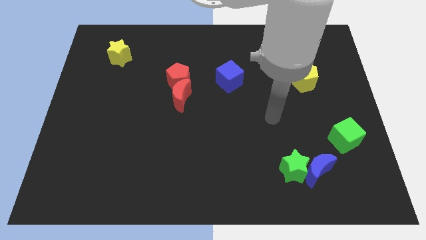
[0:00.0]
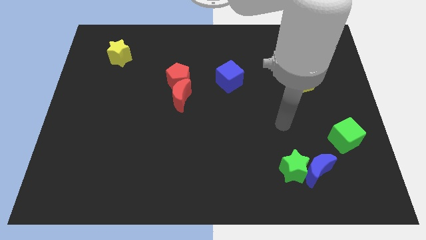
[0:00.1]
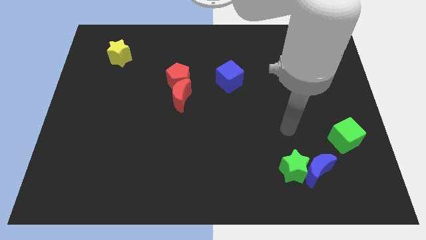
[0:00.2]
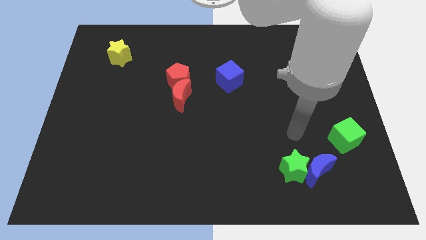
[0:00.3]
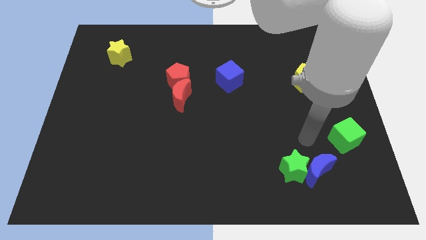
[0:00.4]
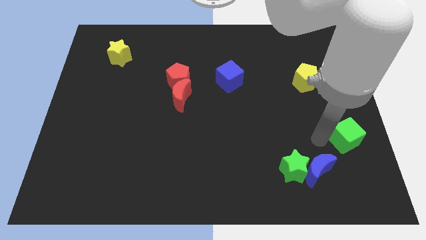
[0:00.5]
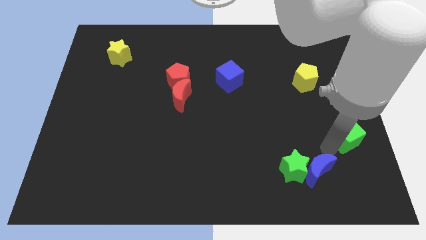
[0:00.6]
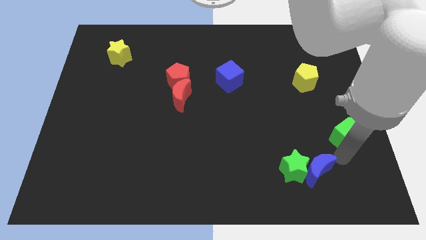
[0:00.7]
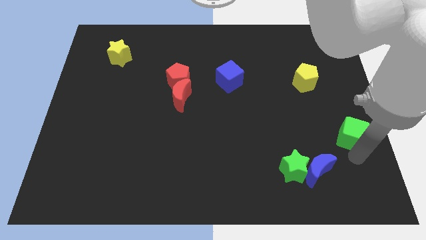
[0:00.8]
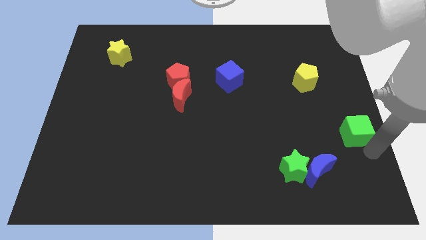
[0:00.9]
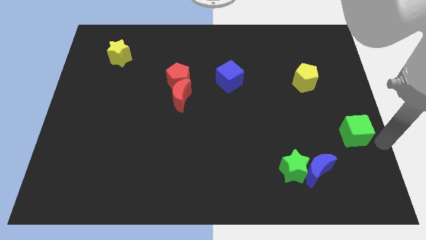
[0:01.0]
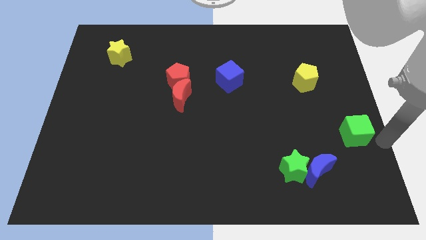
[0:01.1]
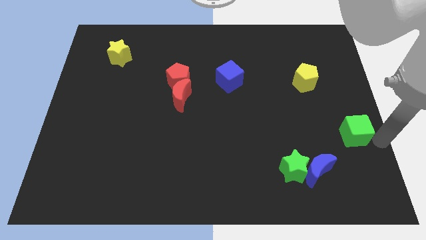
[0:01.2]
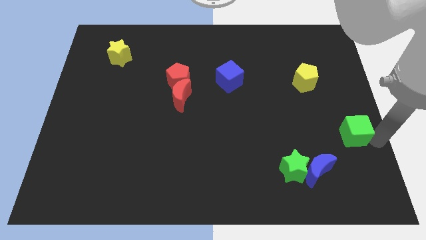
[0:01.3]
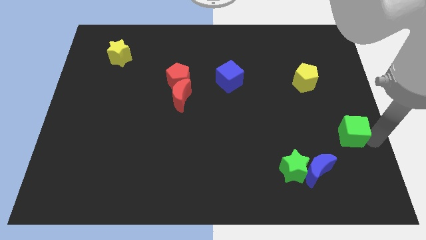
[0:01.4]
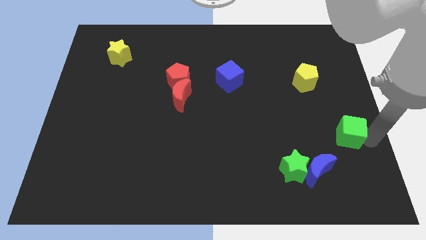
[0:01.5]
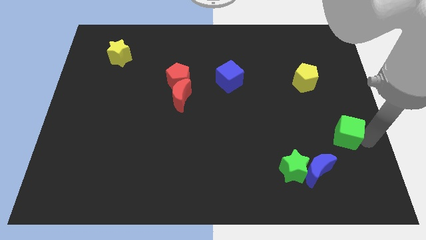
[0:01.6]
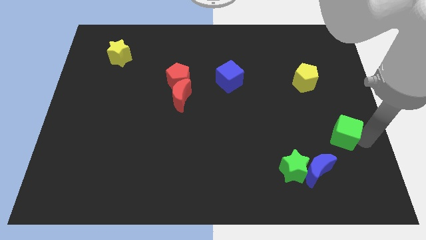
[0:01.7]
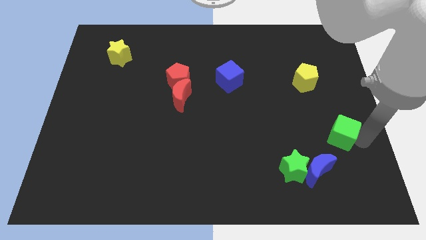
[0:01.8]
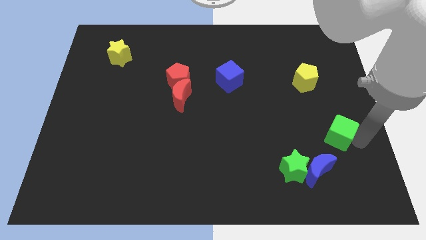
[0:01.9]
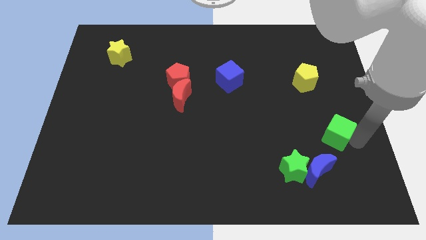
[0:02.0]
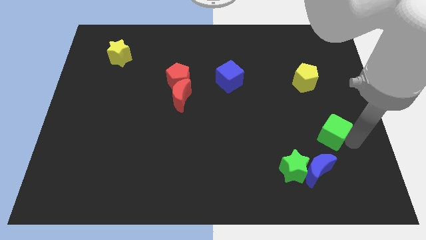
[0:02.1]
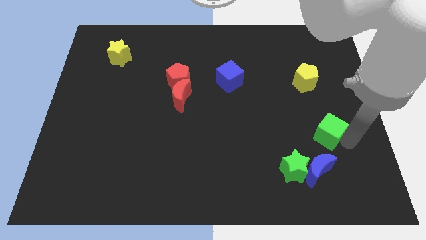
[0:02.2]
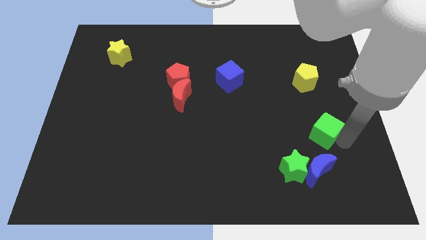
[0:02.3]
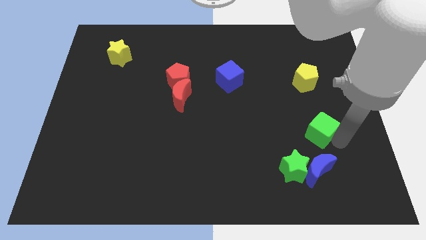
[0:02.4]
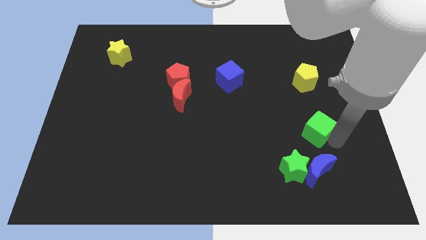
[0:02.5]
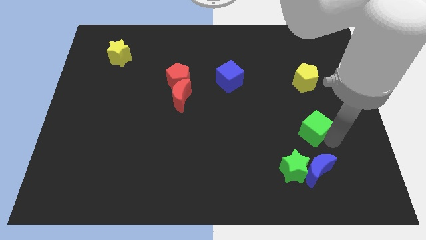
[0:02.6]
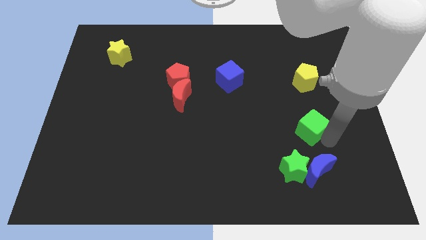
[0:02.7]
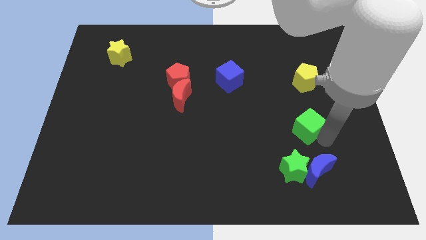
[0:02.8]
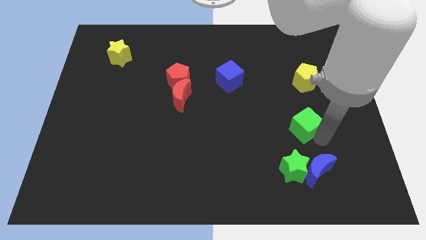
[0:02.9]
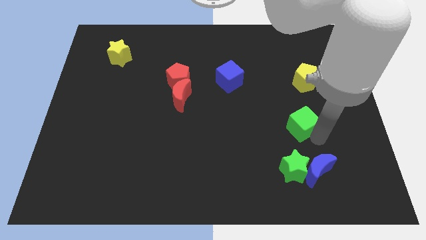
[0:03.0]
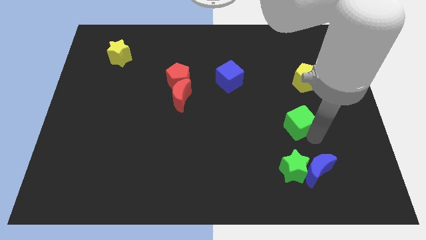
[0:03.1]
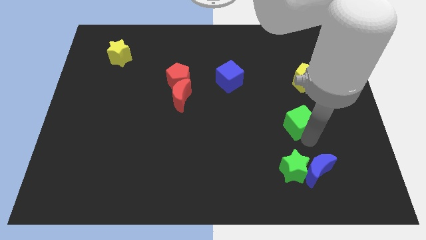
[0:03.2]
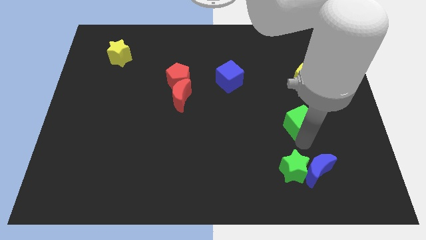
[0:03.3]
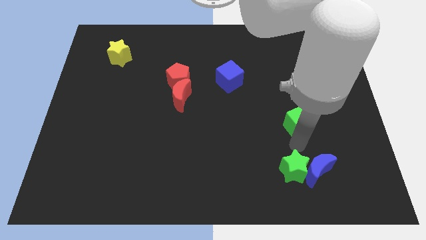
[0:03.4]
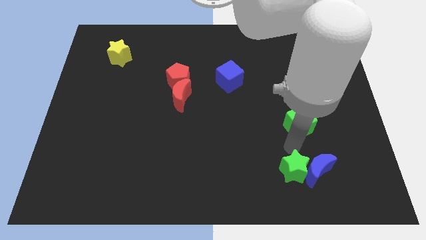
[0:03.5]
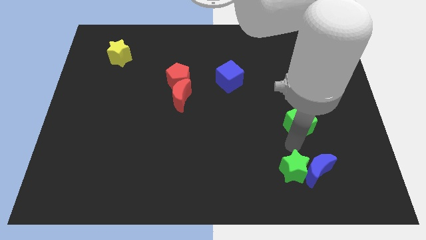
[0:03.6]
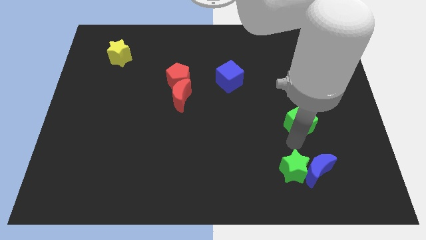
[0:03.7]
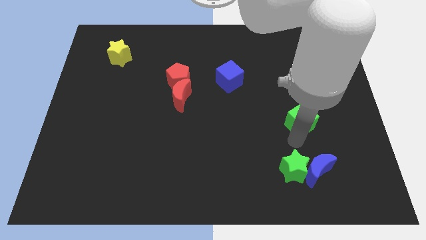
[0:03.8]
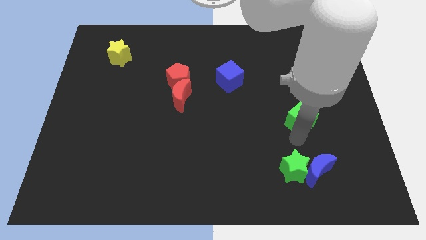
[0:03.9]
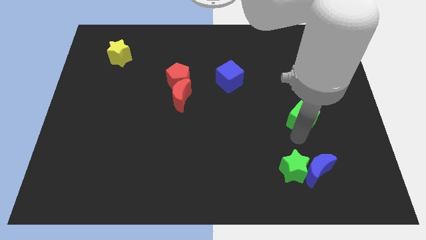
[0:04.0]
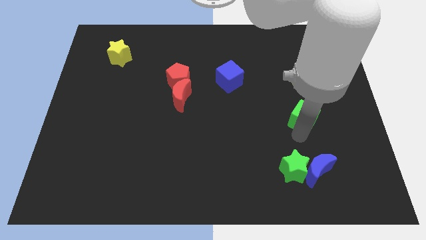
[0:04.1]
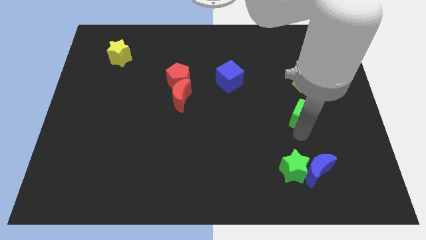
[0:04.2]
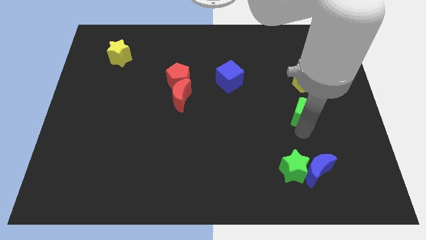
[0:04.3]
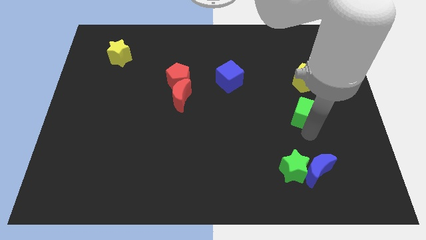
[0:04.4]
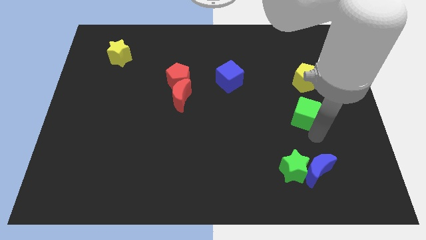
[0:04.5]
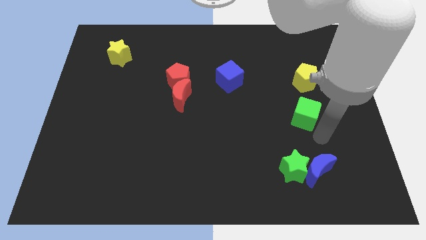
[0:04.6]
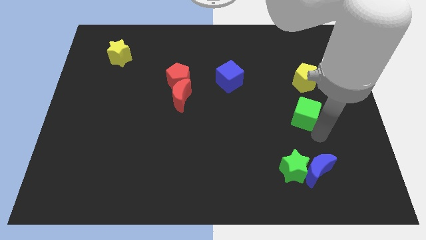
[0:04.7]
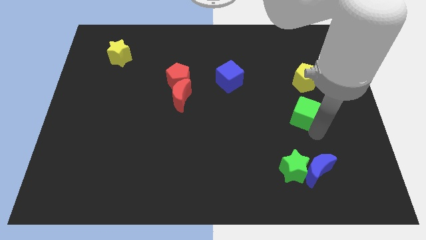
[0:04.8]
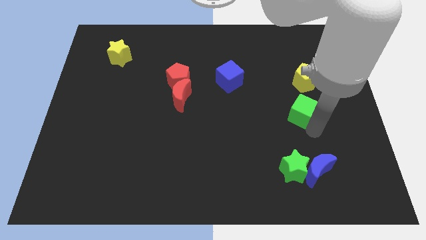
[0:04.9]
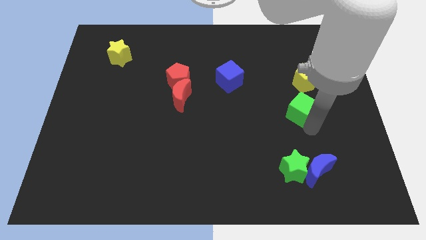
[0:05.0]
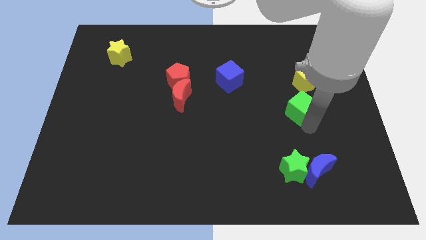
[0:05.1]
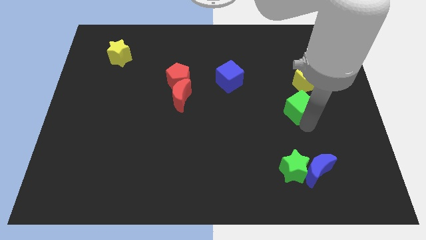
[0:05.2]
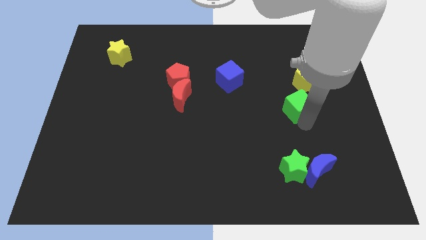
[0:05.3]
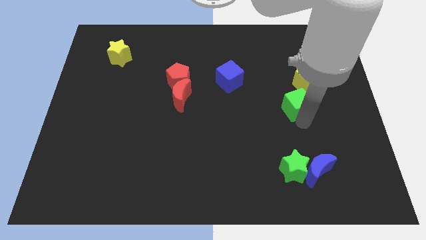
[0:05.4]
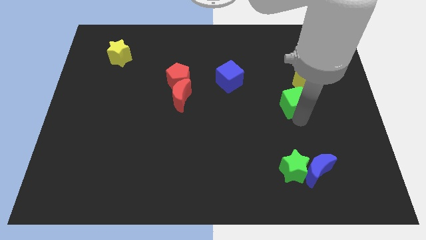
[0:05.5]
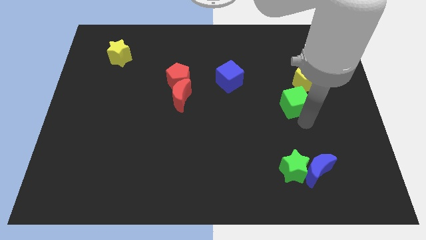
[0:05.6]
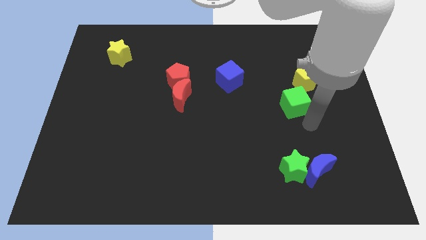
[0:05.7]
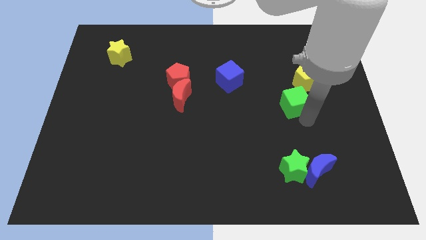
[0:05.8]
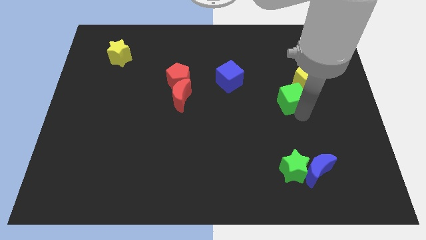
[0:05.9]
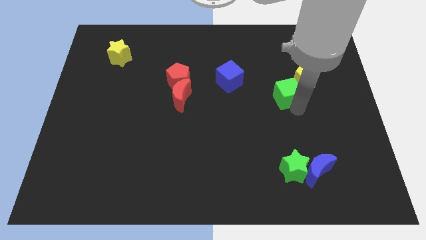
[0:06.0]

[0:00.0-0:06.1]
put the green cube just left of the yellow pentagon
